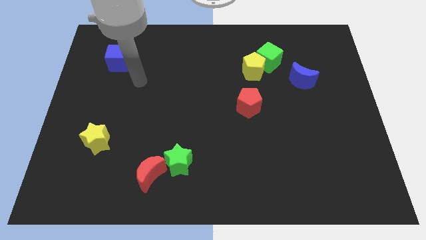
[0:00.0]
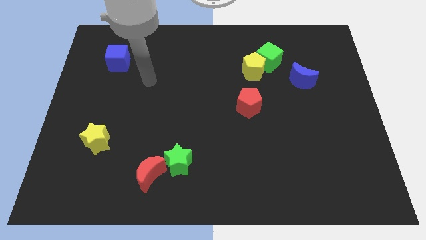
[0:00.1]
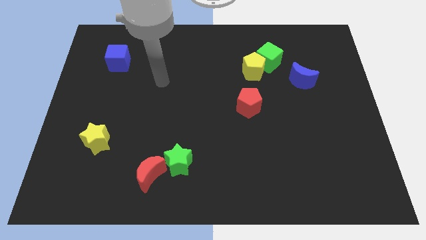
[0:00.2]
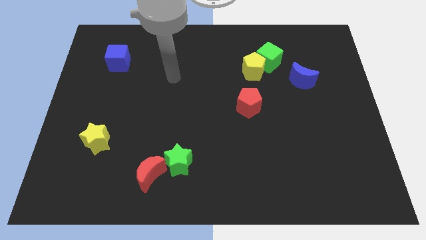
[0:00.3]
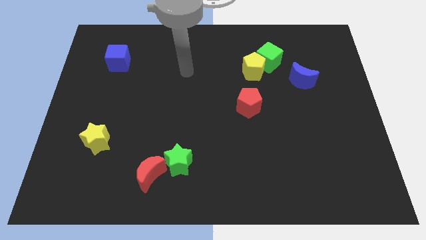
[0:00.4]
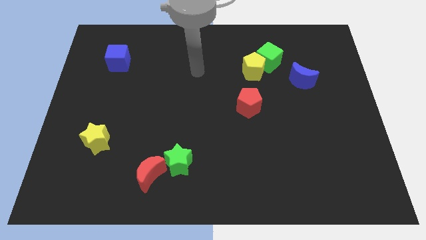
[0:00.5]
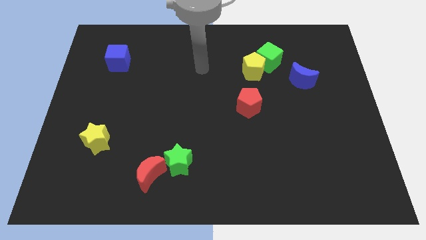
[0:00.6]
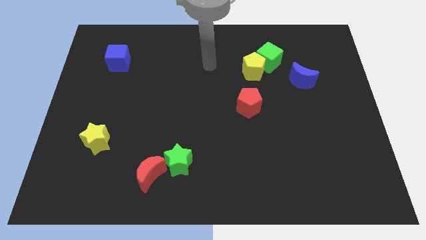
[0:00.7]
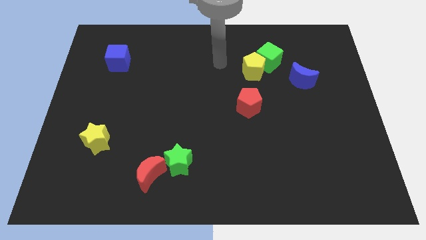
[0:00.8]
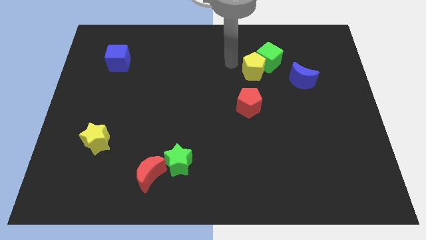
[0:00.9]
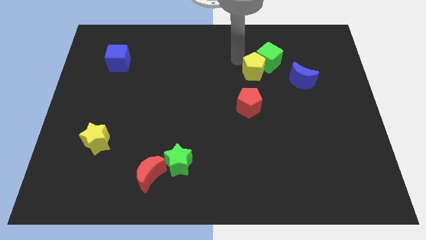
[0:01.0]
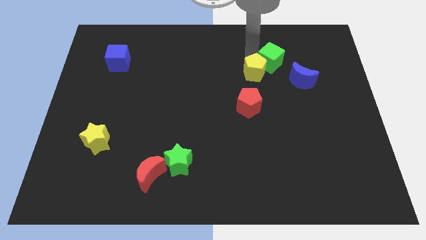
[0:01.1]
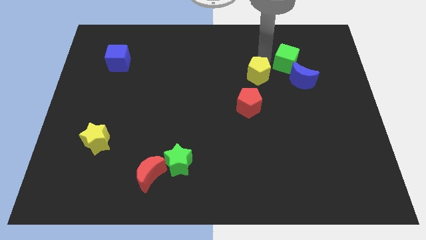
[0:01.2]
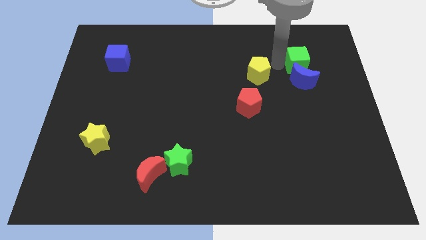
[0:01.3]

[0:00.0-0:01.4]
move the yellow pentagon away from the green cube

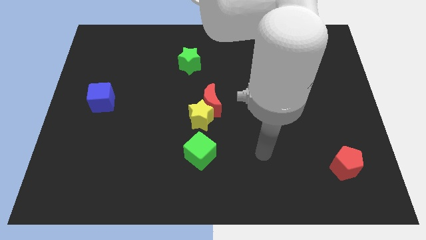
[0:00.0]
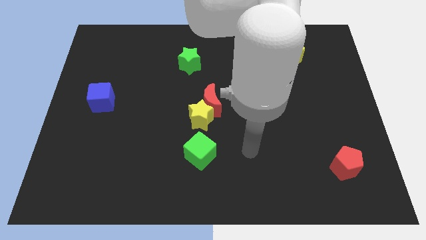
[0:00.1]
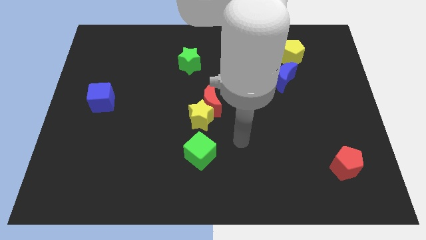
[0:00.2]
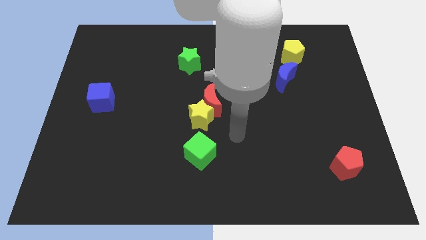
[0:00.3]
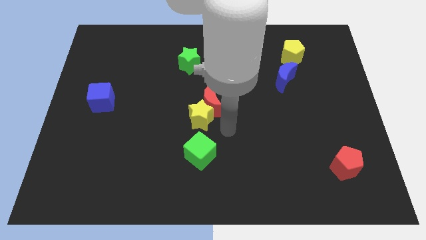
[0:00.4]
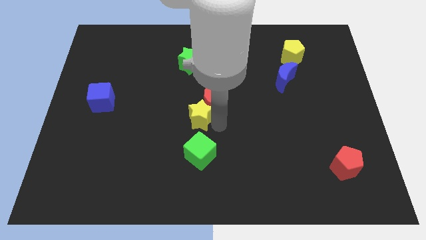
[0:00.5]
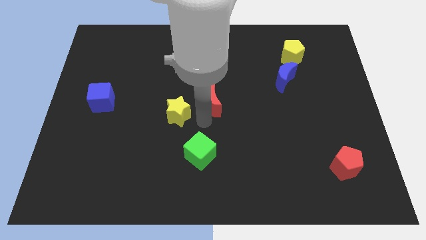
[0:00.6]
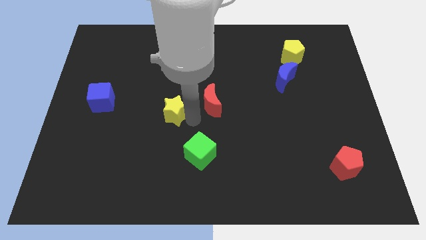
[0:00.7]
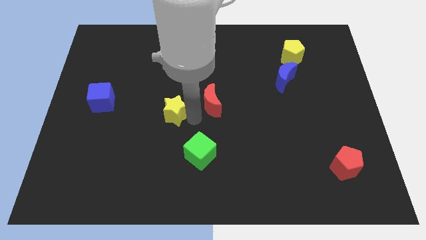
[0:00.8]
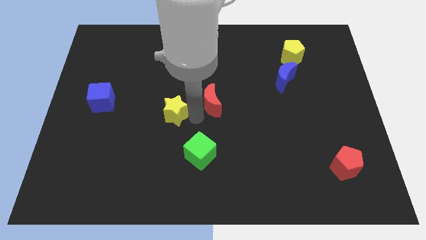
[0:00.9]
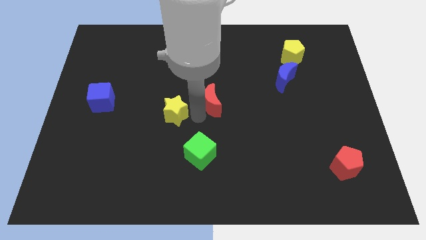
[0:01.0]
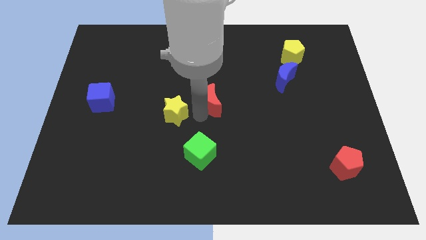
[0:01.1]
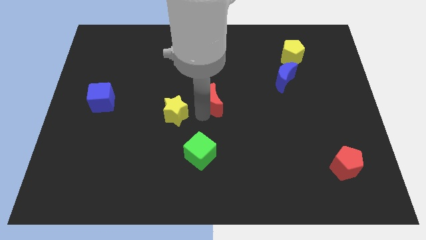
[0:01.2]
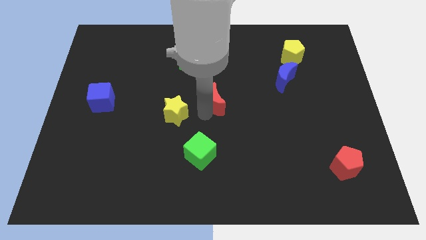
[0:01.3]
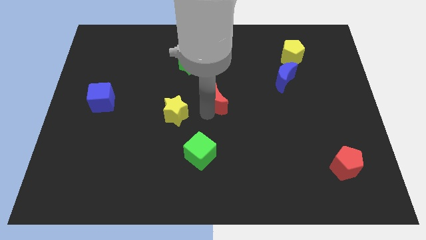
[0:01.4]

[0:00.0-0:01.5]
pull the red moon apart from the yellow star

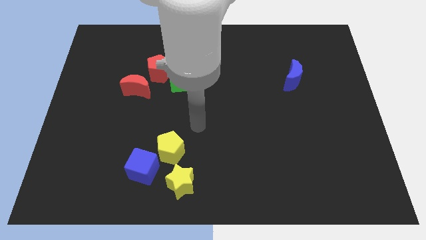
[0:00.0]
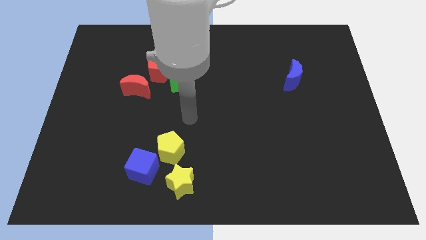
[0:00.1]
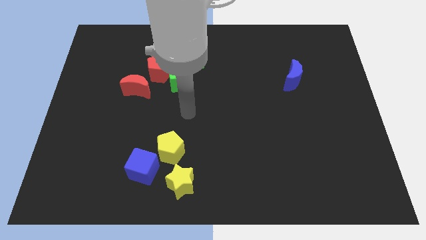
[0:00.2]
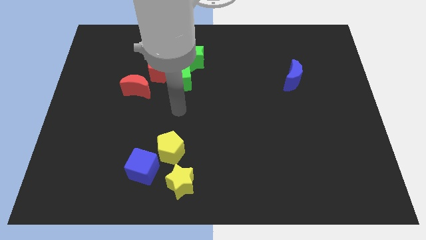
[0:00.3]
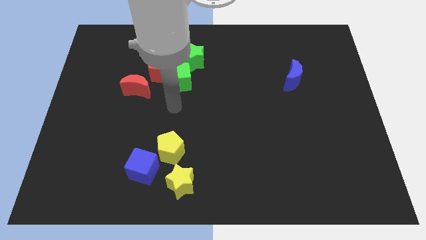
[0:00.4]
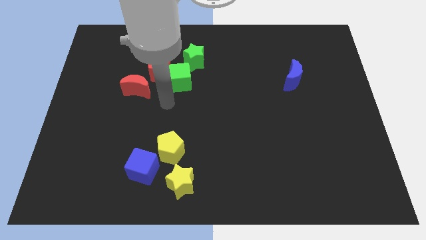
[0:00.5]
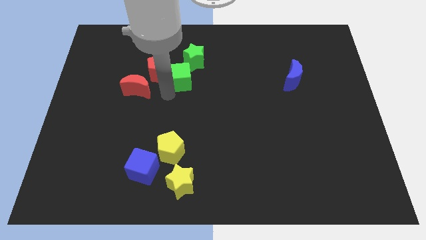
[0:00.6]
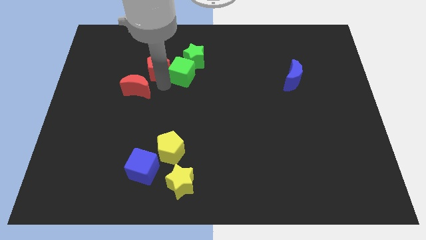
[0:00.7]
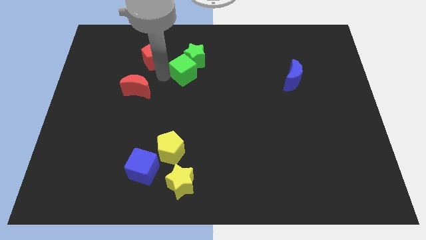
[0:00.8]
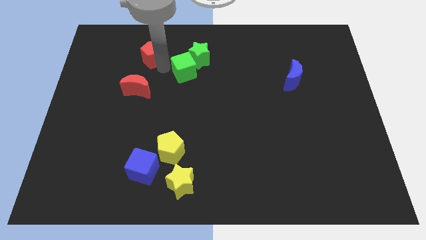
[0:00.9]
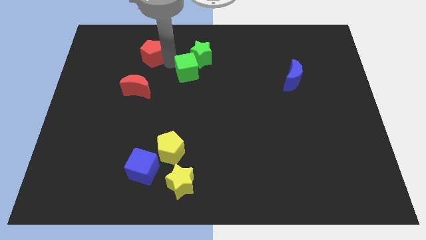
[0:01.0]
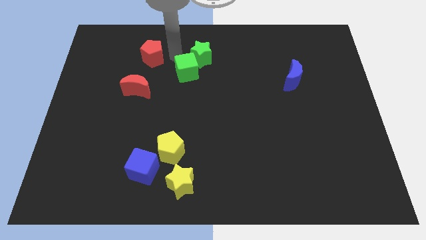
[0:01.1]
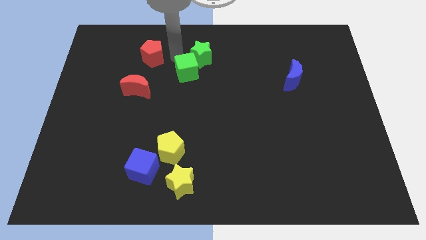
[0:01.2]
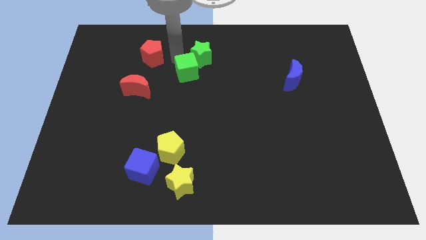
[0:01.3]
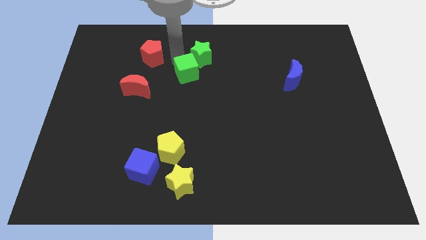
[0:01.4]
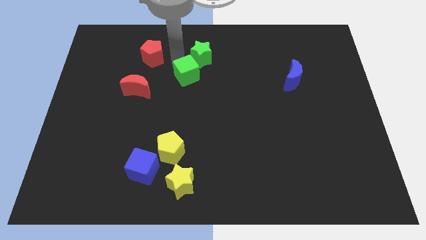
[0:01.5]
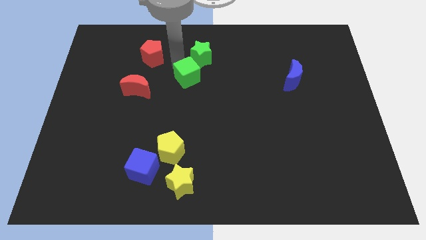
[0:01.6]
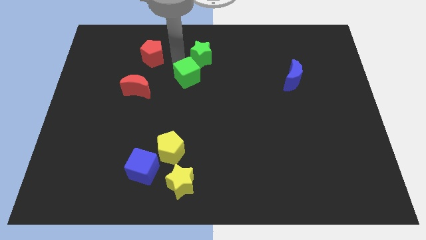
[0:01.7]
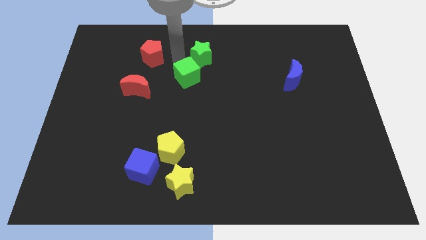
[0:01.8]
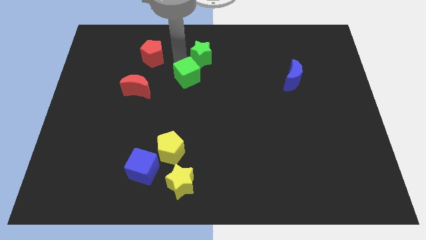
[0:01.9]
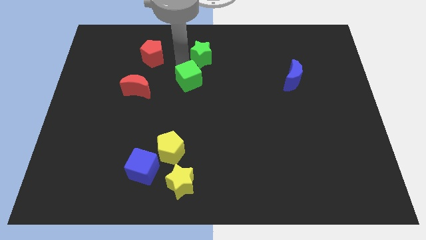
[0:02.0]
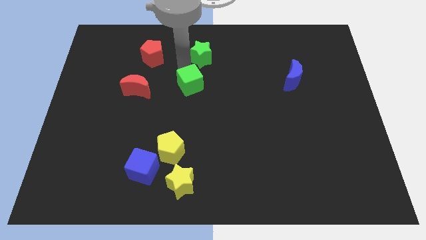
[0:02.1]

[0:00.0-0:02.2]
move the green cube away from the red pentagon and green star

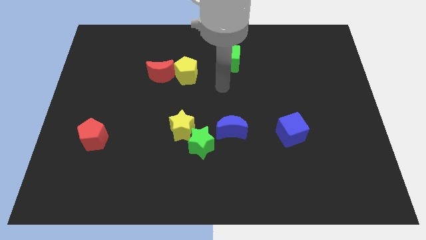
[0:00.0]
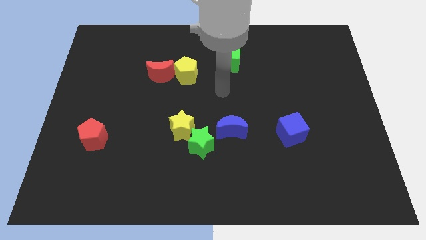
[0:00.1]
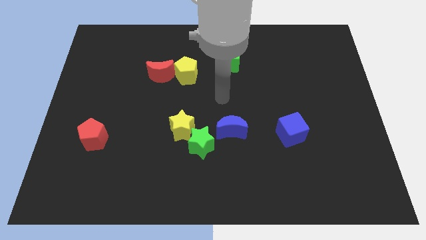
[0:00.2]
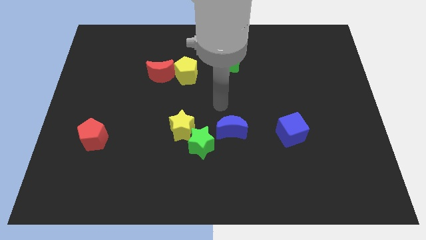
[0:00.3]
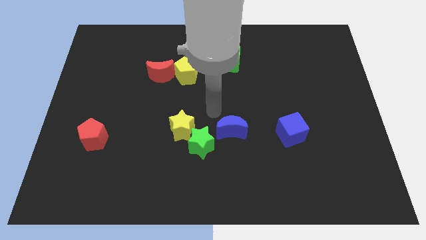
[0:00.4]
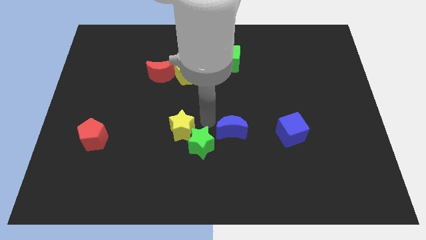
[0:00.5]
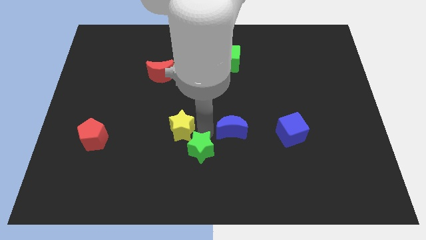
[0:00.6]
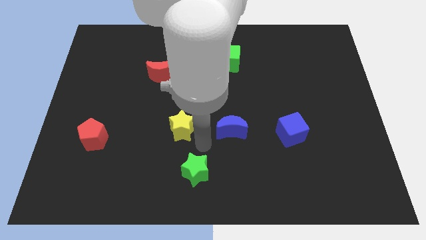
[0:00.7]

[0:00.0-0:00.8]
move the yellow star away from the green star

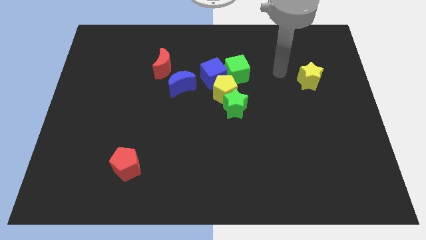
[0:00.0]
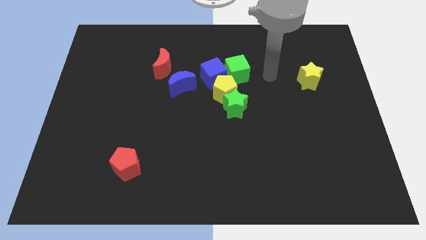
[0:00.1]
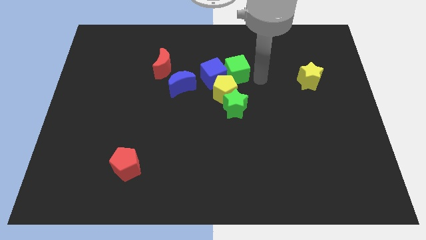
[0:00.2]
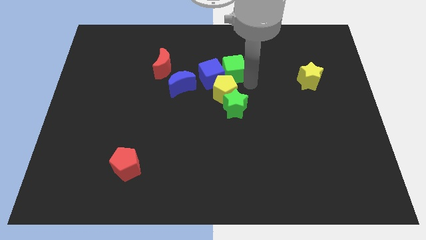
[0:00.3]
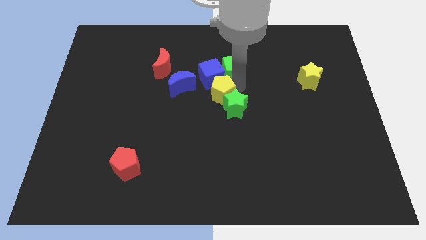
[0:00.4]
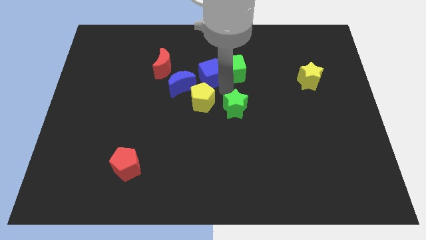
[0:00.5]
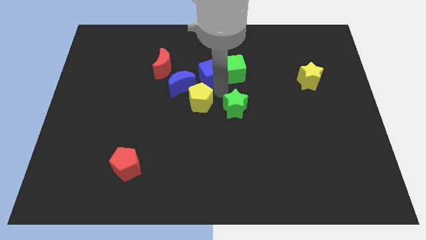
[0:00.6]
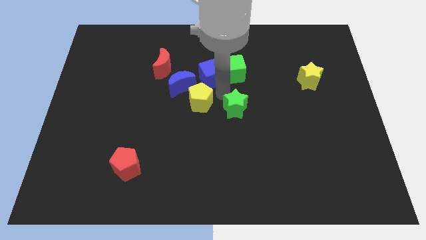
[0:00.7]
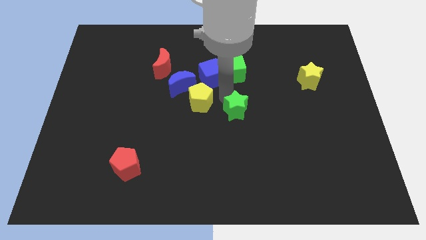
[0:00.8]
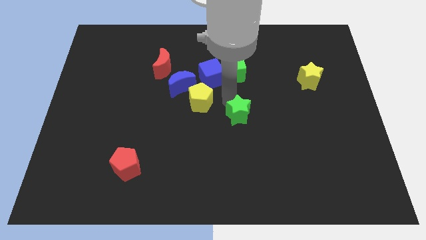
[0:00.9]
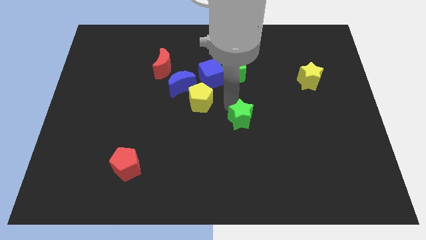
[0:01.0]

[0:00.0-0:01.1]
move the green star away from the yellow pentagon

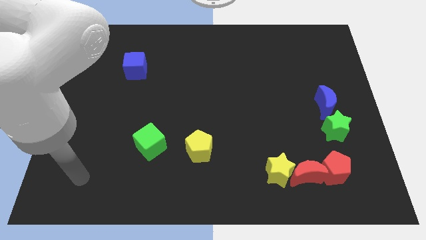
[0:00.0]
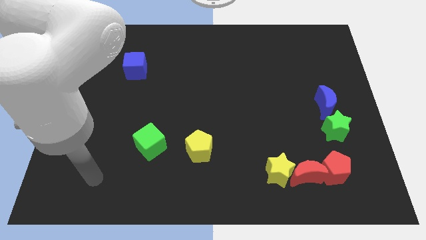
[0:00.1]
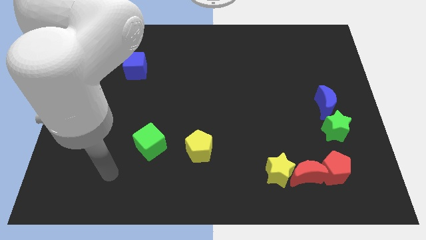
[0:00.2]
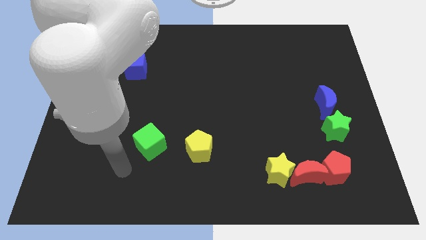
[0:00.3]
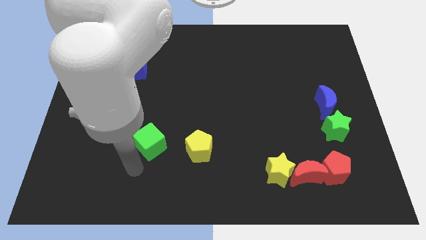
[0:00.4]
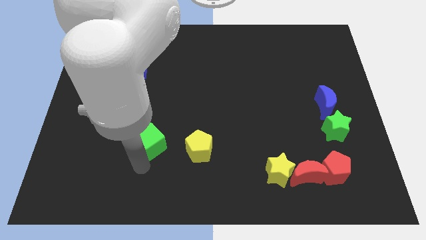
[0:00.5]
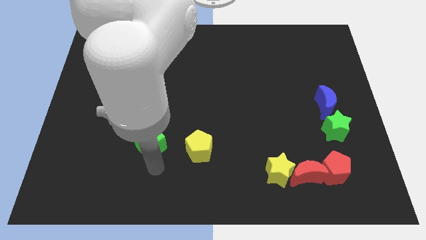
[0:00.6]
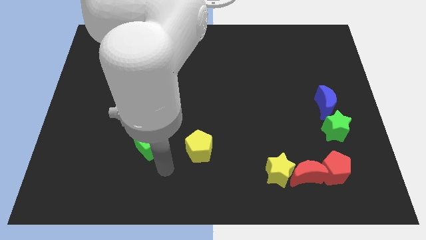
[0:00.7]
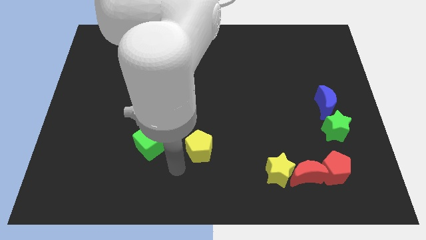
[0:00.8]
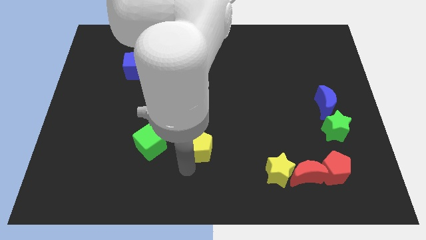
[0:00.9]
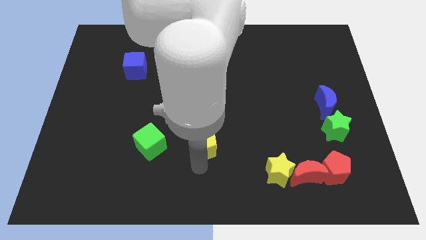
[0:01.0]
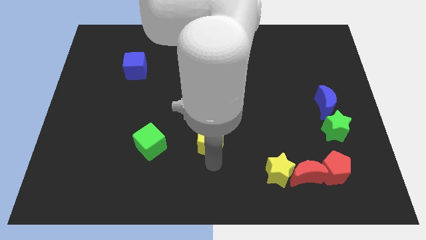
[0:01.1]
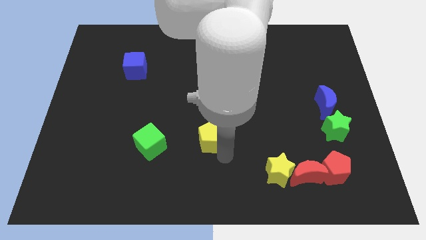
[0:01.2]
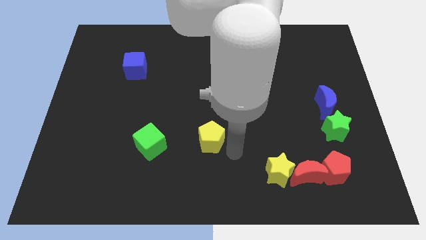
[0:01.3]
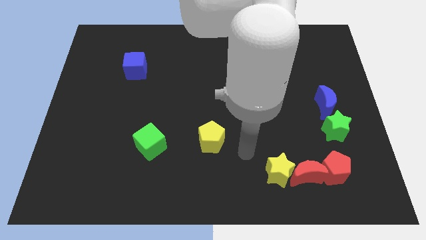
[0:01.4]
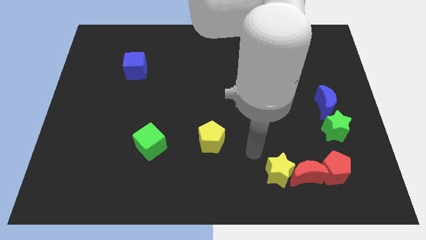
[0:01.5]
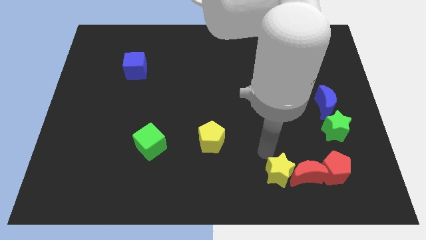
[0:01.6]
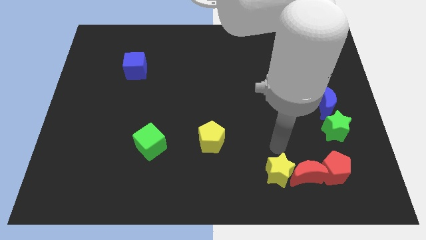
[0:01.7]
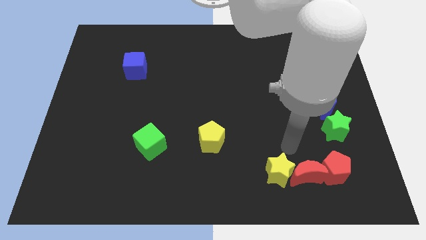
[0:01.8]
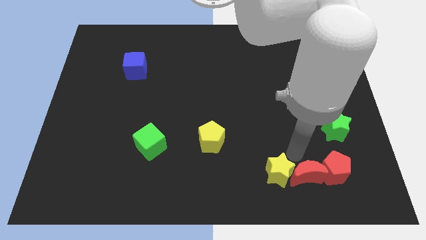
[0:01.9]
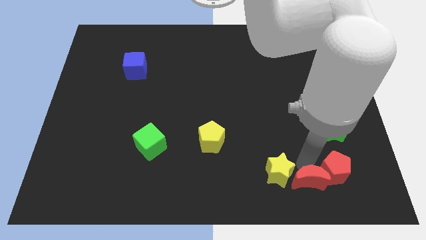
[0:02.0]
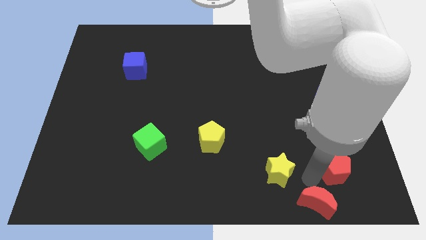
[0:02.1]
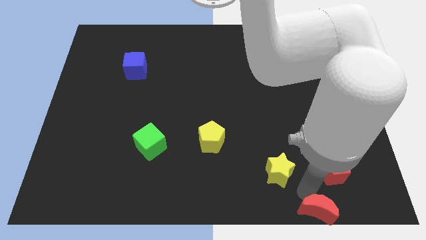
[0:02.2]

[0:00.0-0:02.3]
separate the yellow star from the red moon
